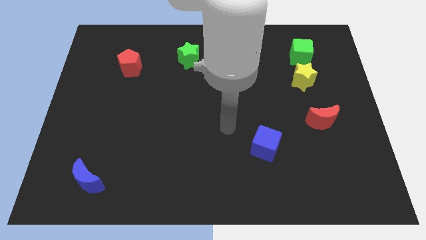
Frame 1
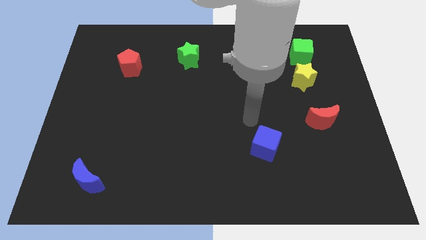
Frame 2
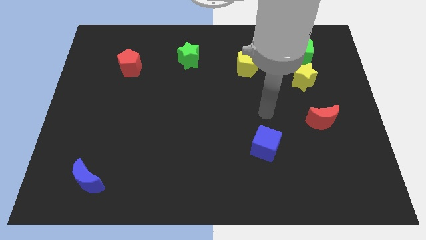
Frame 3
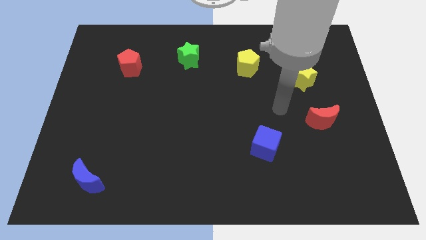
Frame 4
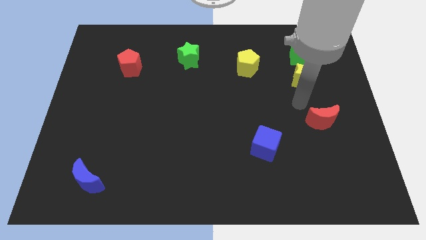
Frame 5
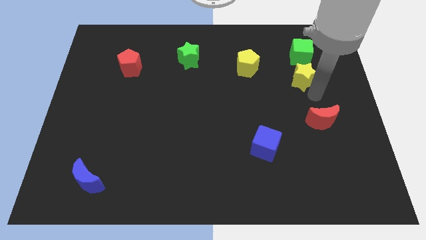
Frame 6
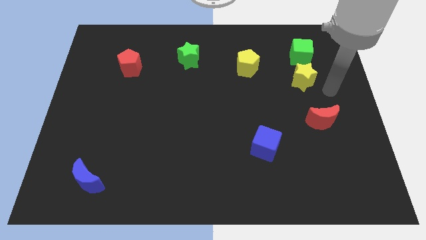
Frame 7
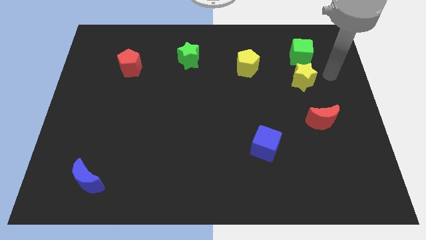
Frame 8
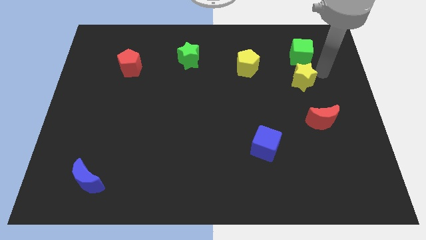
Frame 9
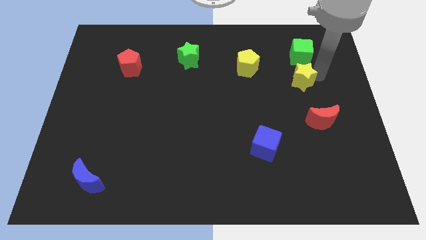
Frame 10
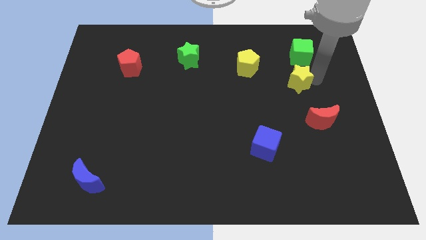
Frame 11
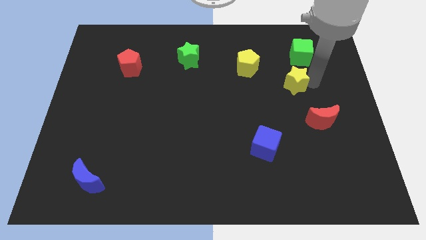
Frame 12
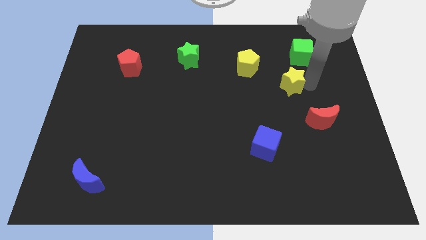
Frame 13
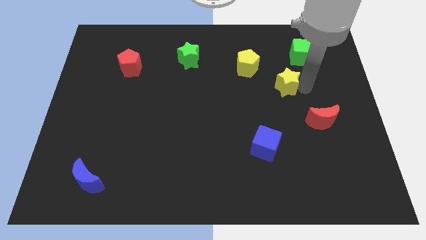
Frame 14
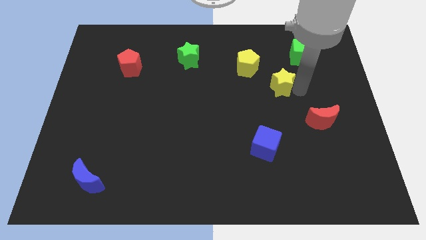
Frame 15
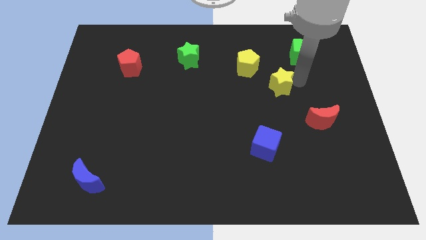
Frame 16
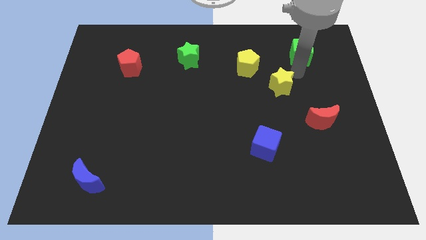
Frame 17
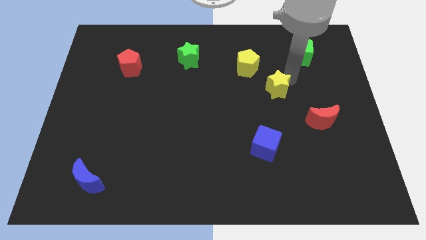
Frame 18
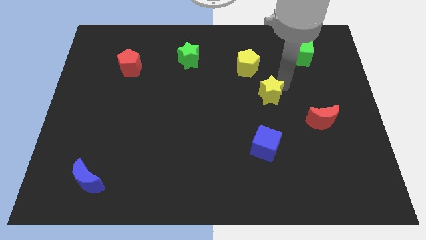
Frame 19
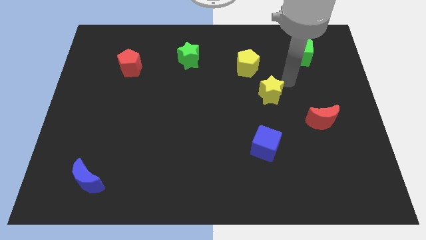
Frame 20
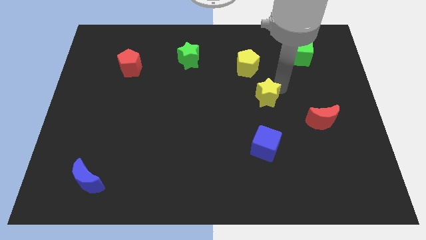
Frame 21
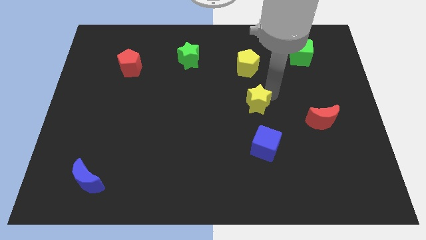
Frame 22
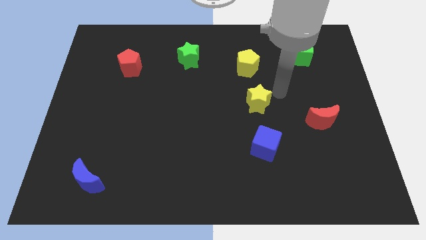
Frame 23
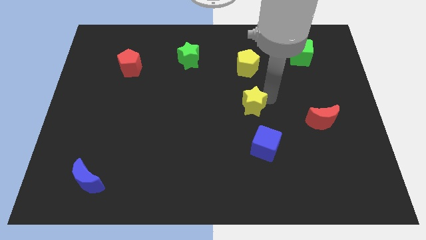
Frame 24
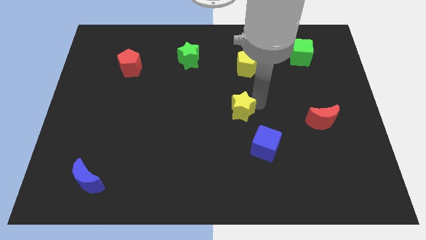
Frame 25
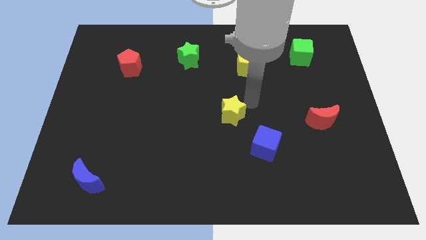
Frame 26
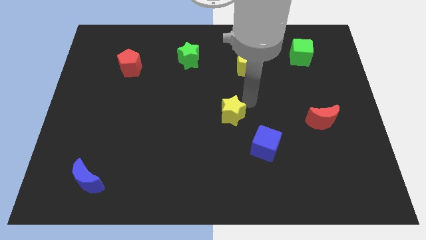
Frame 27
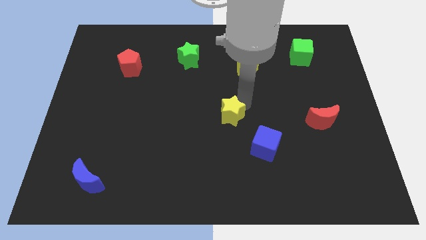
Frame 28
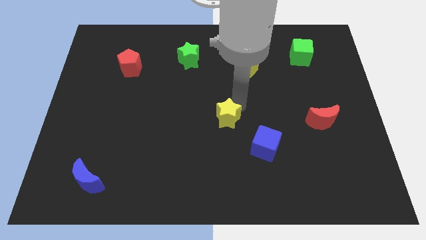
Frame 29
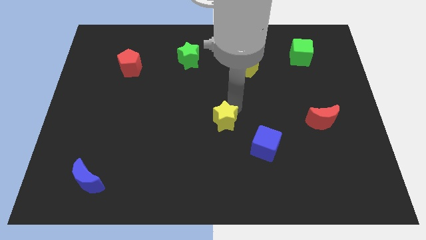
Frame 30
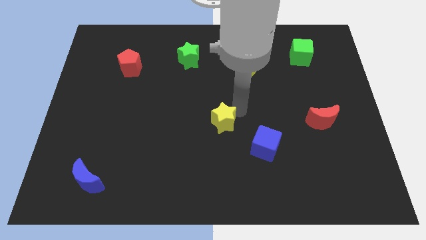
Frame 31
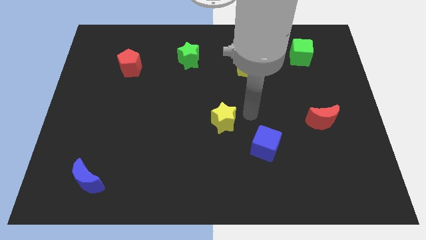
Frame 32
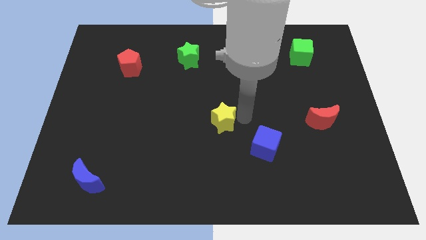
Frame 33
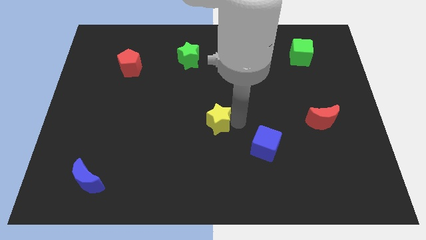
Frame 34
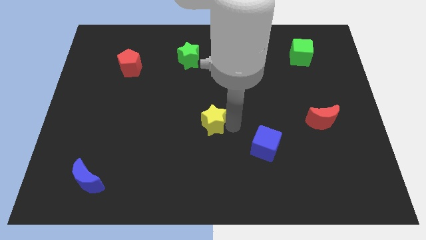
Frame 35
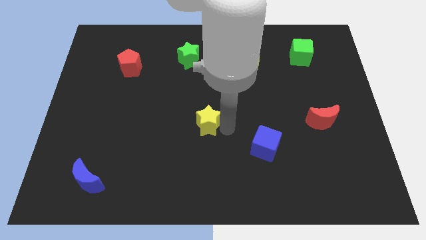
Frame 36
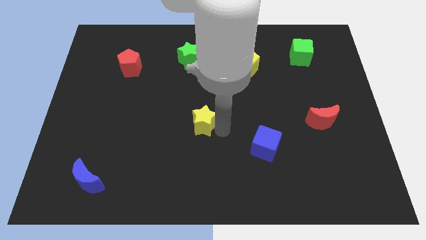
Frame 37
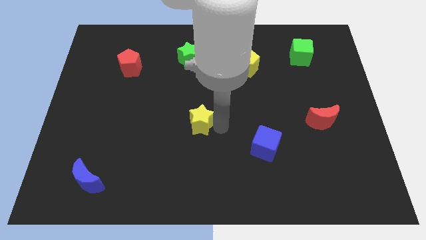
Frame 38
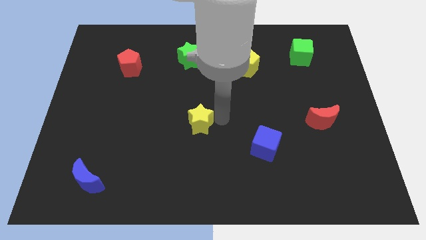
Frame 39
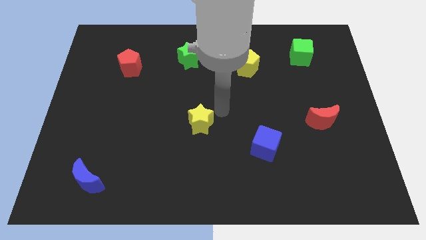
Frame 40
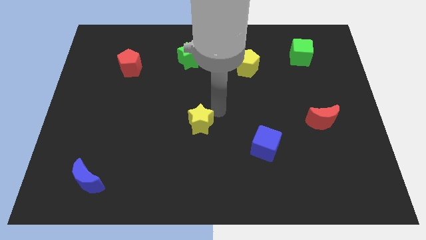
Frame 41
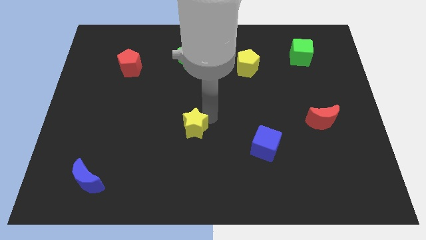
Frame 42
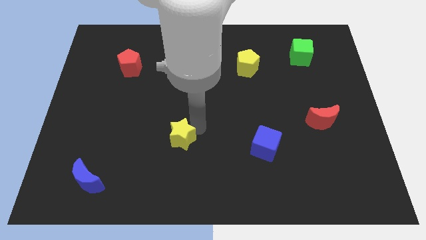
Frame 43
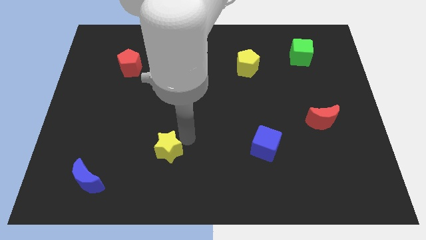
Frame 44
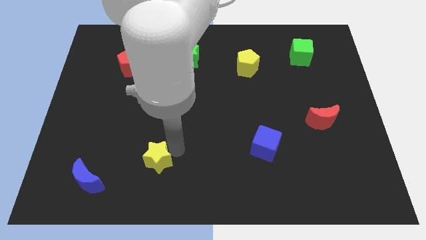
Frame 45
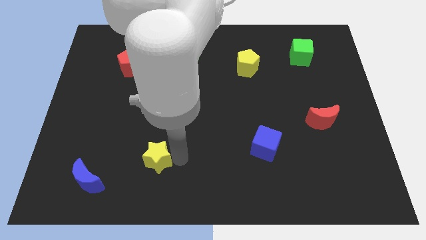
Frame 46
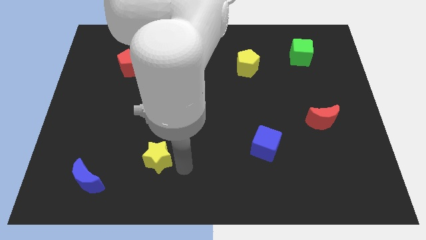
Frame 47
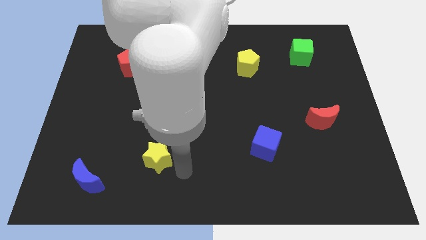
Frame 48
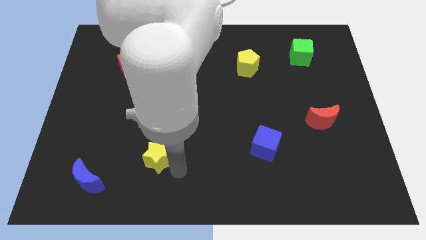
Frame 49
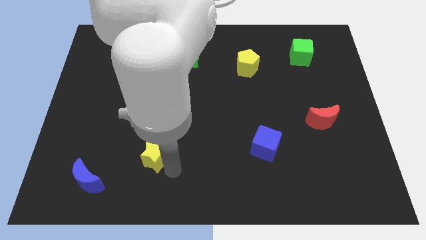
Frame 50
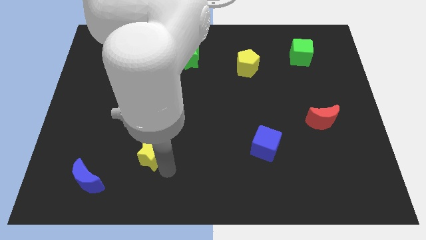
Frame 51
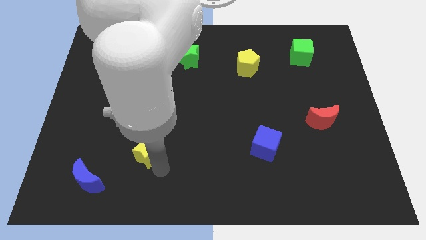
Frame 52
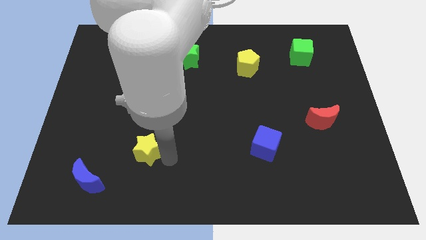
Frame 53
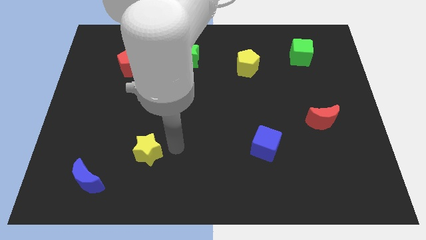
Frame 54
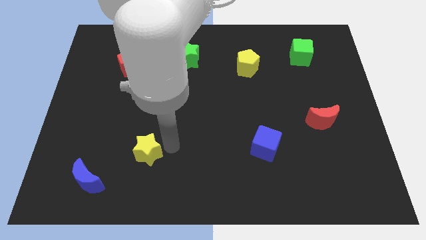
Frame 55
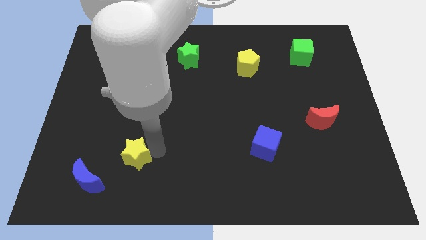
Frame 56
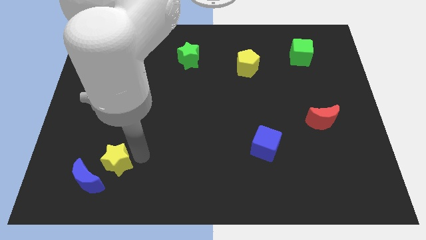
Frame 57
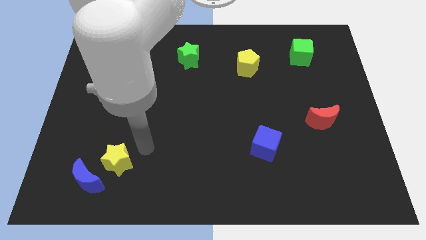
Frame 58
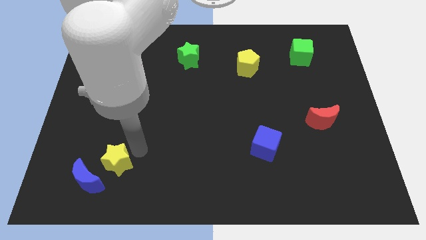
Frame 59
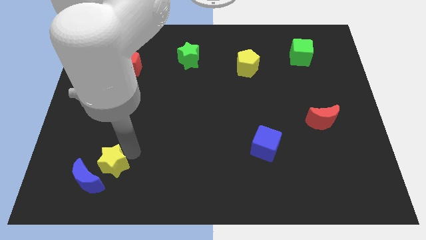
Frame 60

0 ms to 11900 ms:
push the yellow star to the blue moon

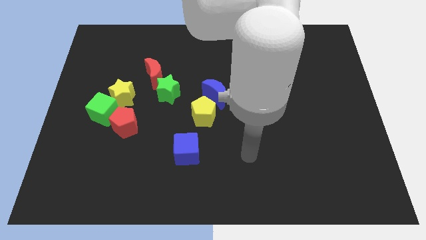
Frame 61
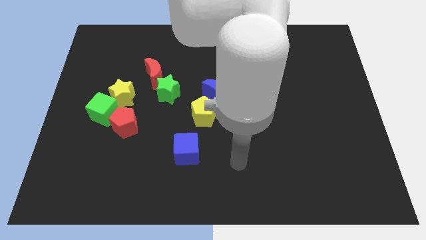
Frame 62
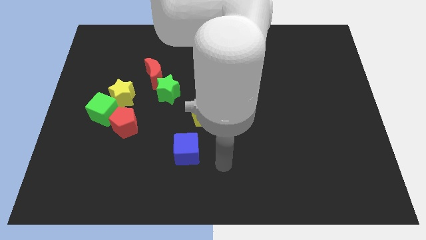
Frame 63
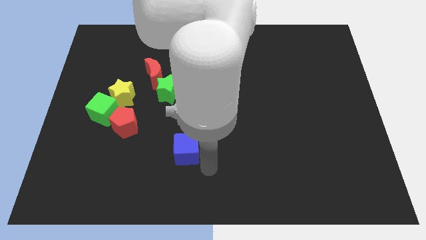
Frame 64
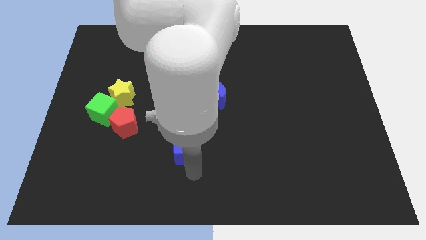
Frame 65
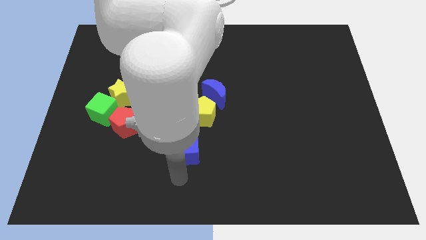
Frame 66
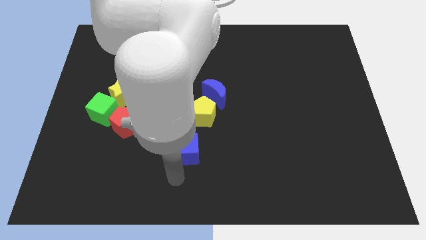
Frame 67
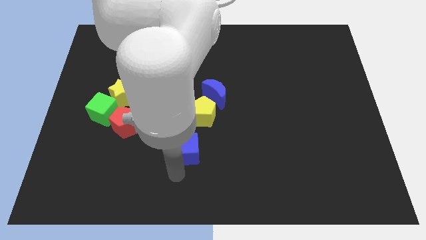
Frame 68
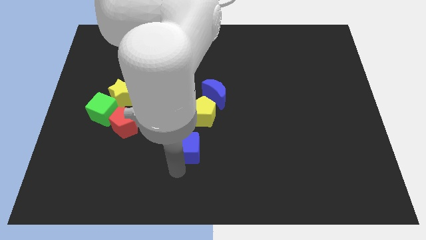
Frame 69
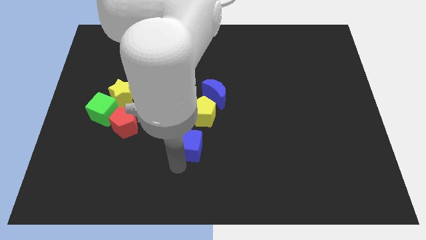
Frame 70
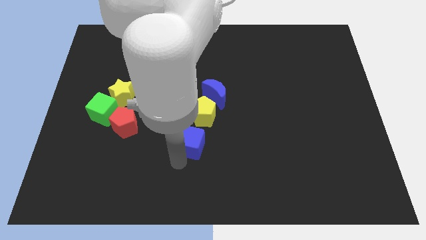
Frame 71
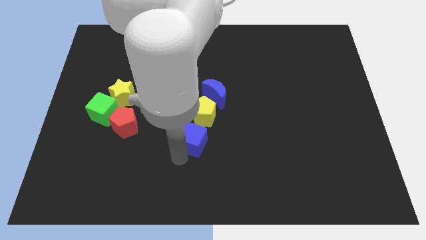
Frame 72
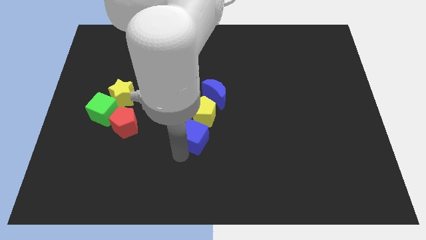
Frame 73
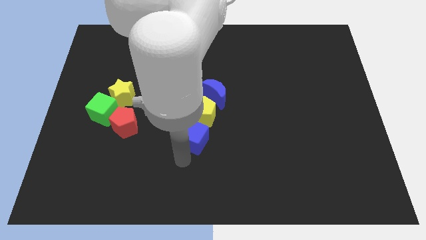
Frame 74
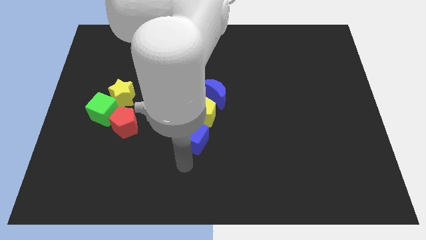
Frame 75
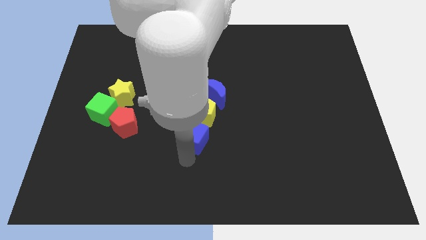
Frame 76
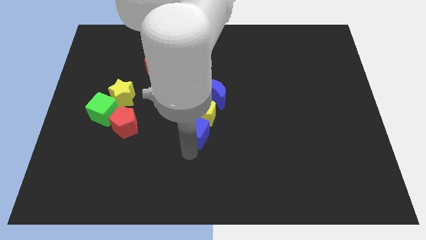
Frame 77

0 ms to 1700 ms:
move the blue cube to the yellow pentagon
